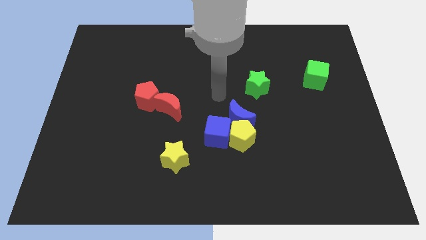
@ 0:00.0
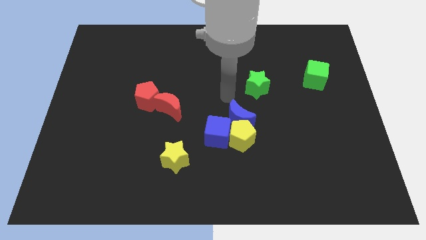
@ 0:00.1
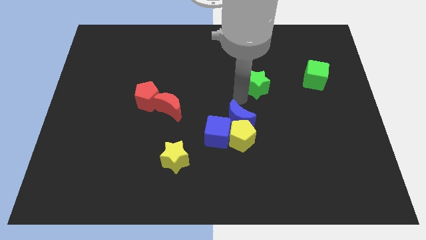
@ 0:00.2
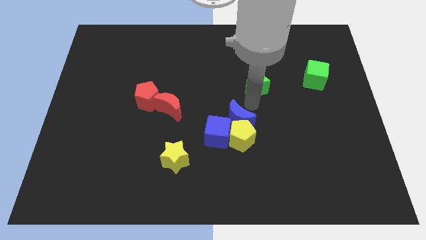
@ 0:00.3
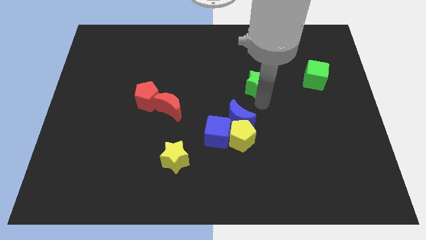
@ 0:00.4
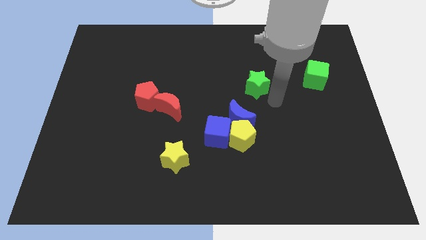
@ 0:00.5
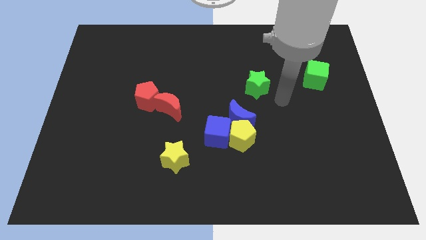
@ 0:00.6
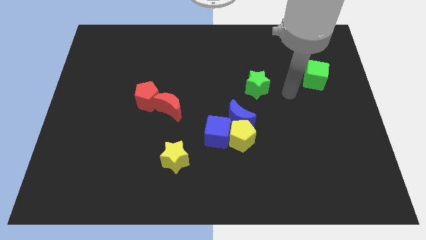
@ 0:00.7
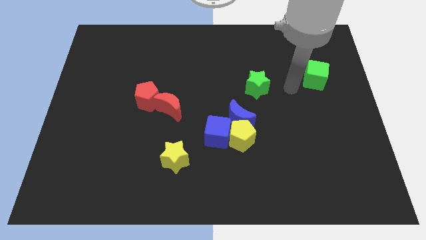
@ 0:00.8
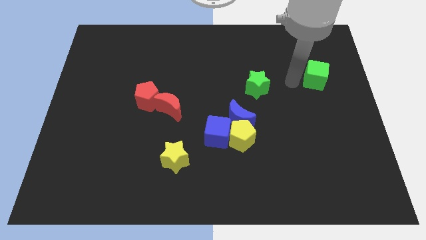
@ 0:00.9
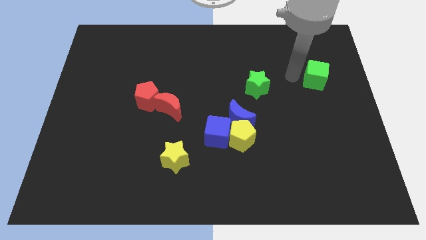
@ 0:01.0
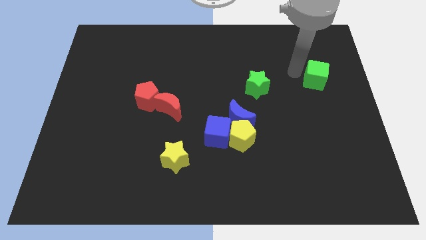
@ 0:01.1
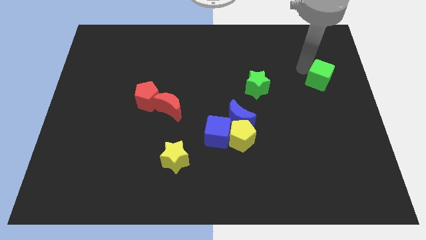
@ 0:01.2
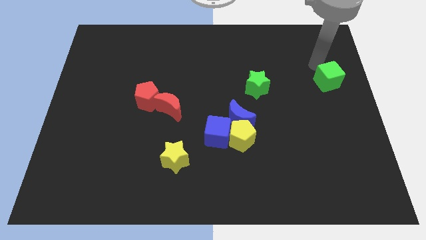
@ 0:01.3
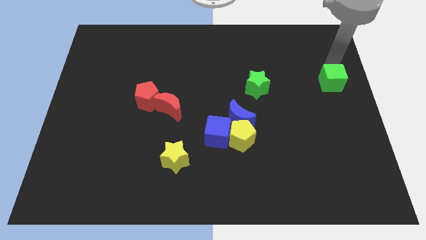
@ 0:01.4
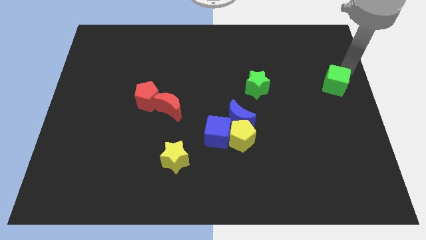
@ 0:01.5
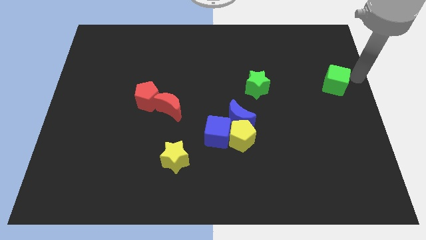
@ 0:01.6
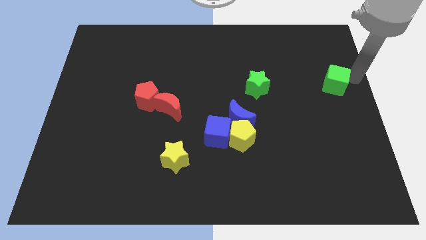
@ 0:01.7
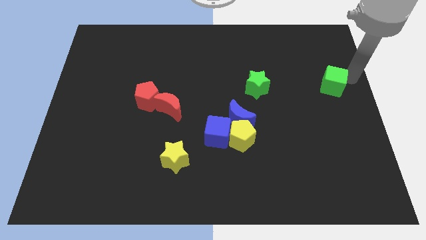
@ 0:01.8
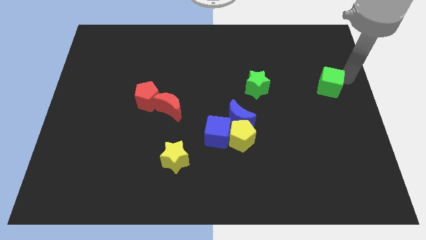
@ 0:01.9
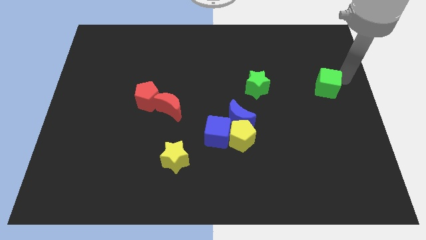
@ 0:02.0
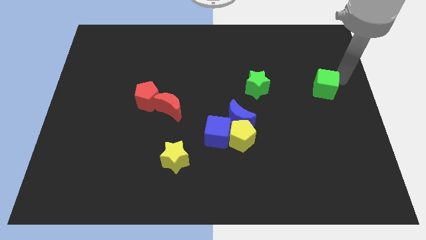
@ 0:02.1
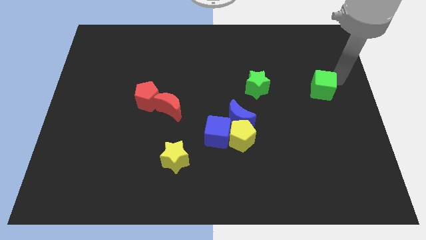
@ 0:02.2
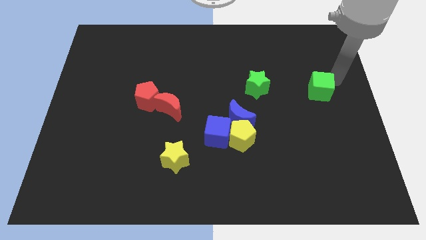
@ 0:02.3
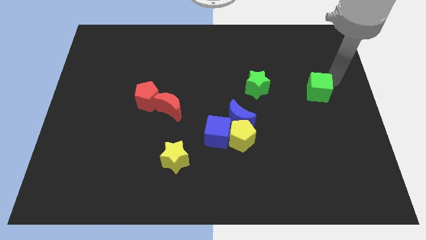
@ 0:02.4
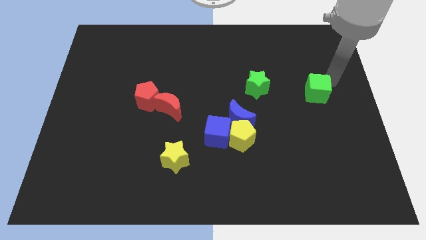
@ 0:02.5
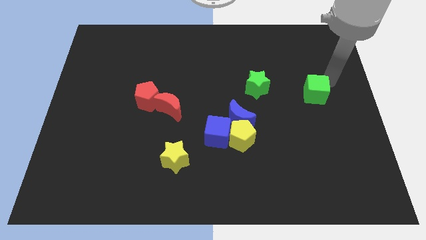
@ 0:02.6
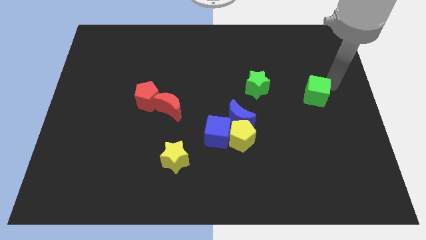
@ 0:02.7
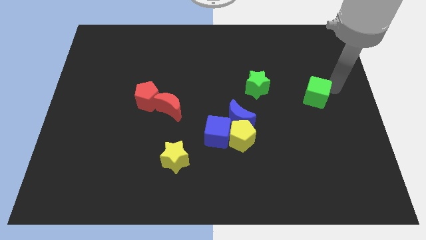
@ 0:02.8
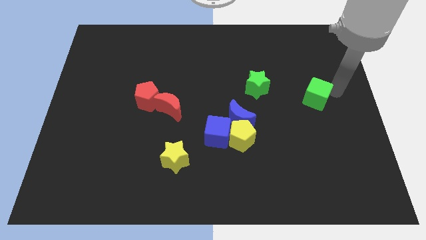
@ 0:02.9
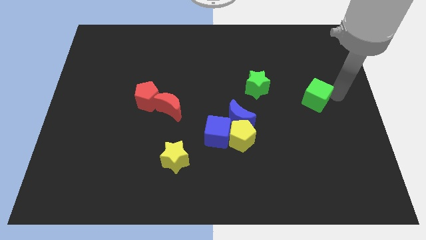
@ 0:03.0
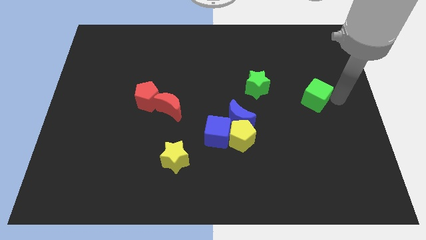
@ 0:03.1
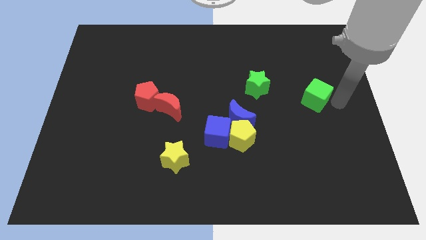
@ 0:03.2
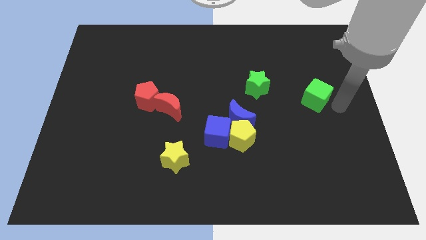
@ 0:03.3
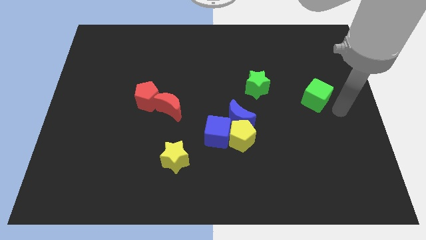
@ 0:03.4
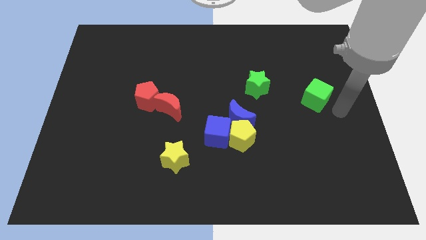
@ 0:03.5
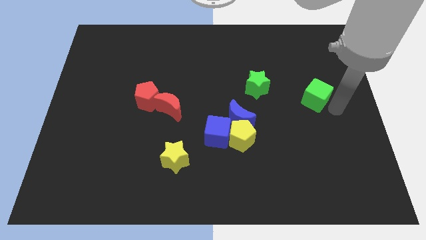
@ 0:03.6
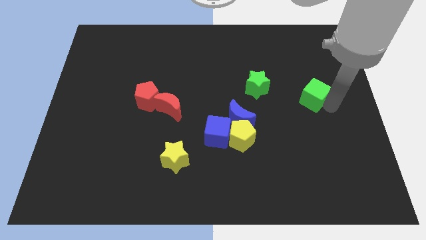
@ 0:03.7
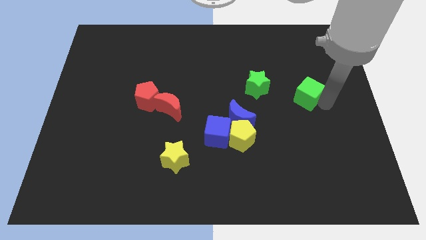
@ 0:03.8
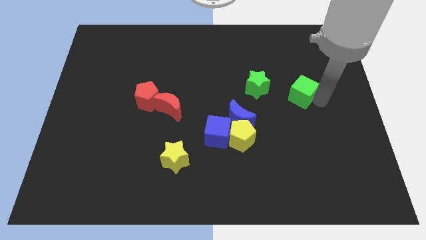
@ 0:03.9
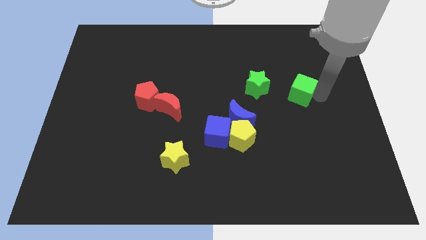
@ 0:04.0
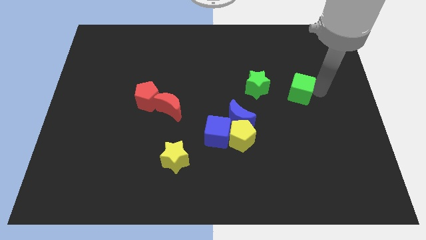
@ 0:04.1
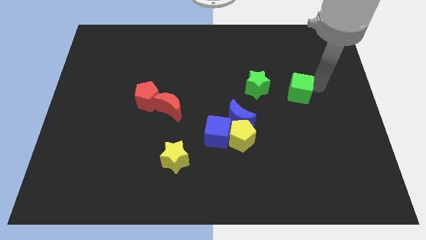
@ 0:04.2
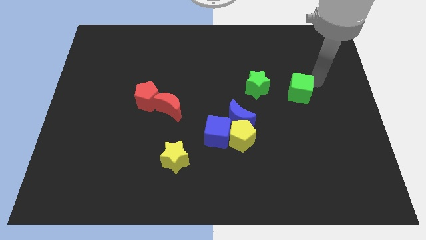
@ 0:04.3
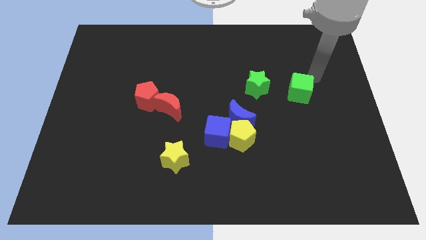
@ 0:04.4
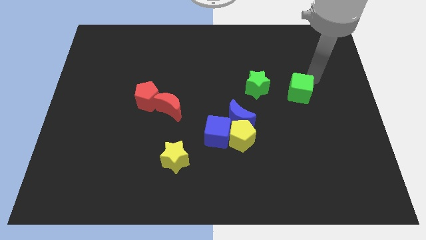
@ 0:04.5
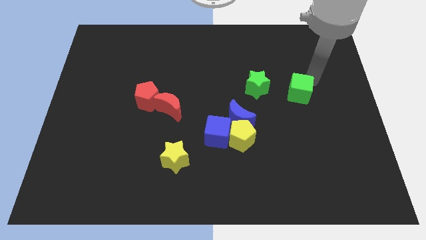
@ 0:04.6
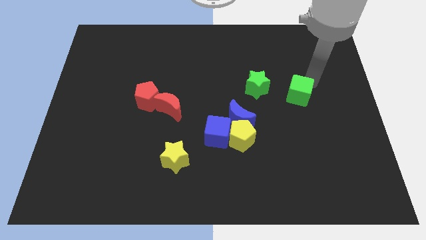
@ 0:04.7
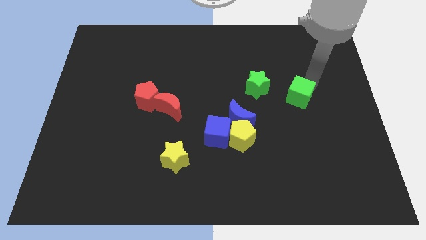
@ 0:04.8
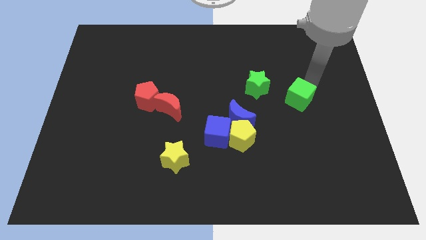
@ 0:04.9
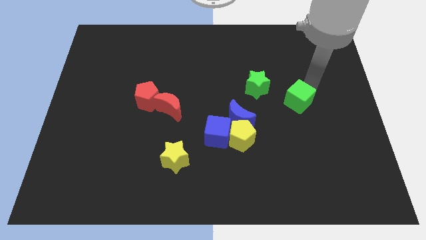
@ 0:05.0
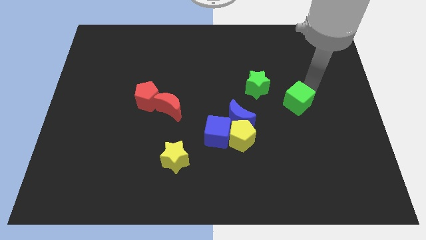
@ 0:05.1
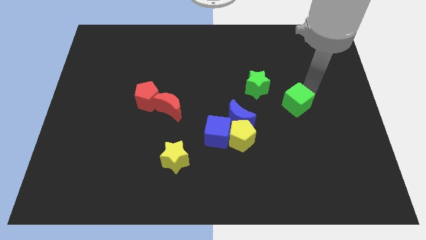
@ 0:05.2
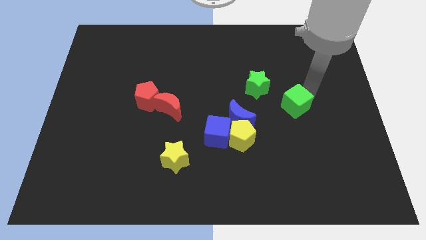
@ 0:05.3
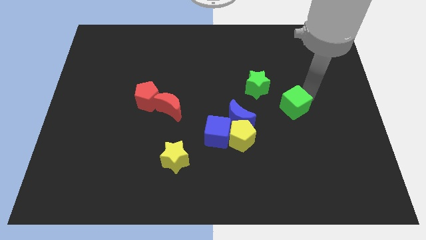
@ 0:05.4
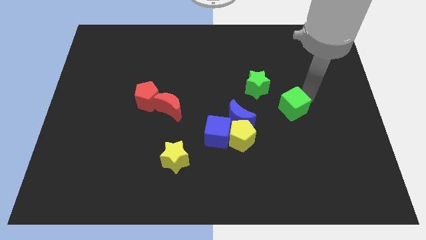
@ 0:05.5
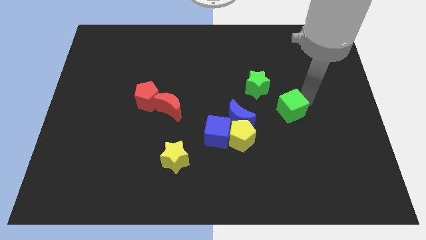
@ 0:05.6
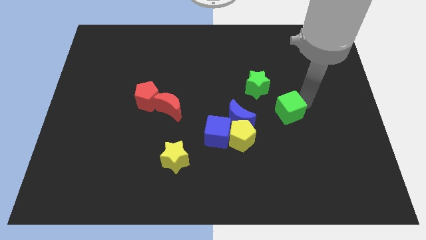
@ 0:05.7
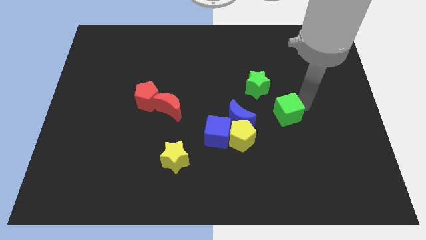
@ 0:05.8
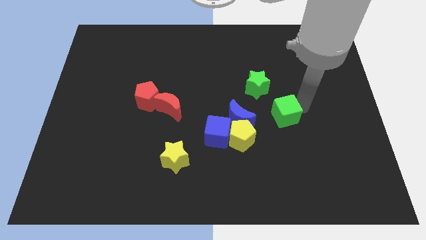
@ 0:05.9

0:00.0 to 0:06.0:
slide the green cube diagonally up and to the right of the yellow pentagon

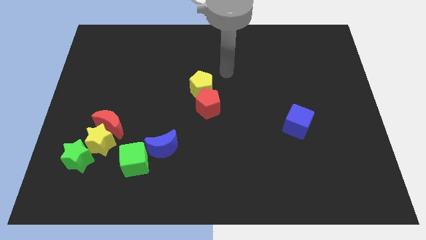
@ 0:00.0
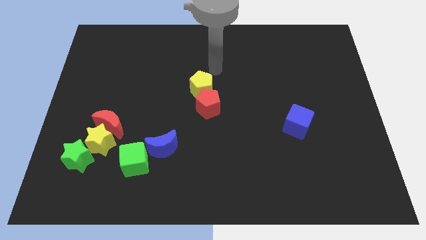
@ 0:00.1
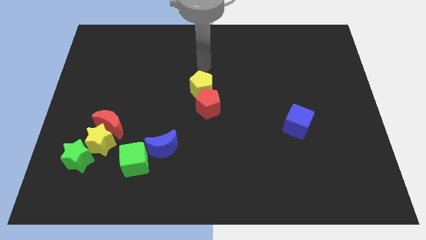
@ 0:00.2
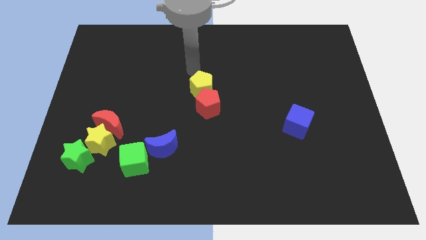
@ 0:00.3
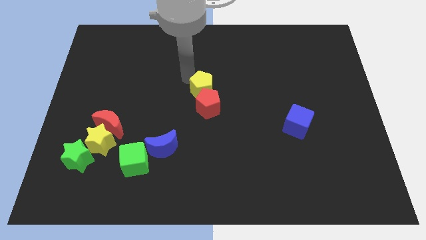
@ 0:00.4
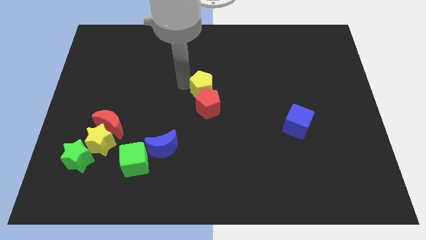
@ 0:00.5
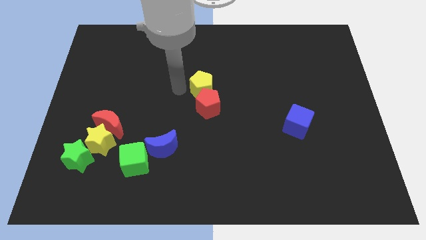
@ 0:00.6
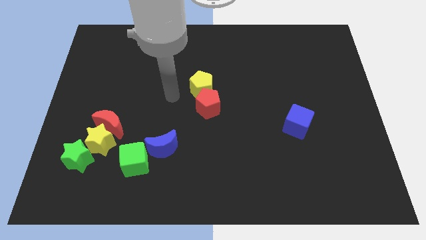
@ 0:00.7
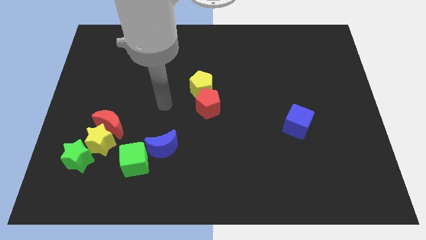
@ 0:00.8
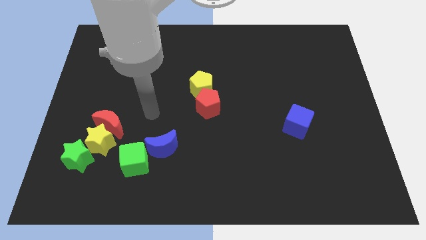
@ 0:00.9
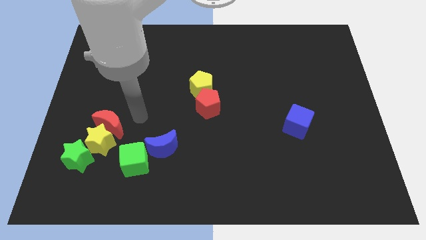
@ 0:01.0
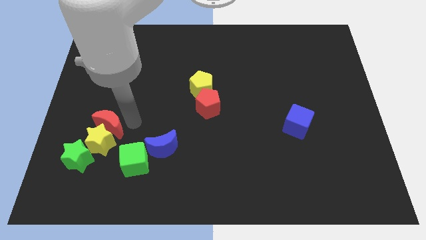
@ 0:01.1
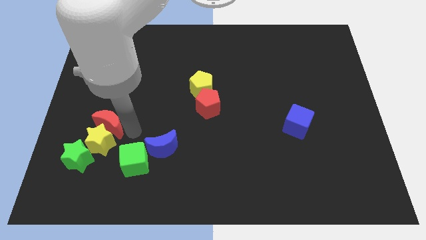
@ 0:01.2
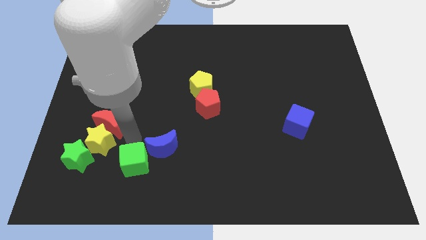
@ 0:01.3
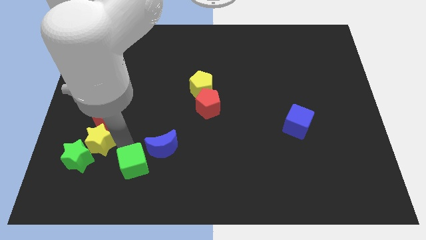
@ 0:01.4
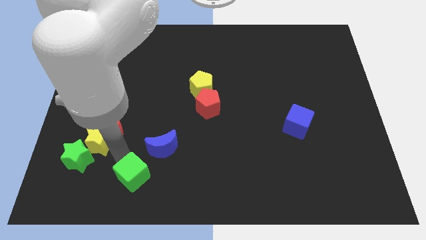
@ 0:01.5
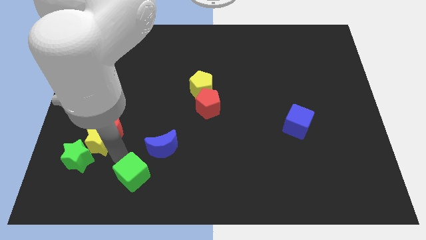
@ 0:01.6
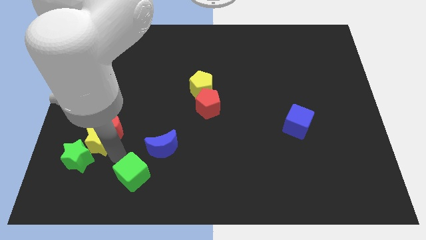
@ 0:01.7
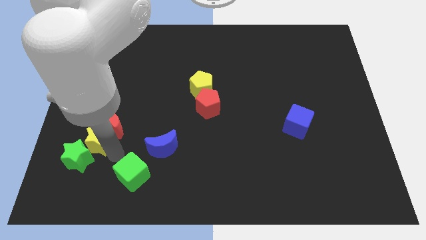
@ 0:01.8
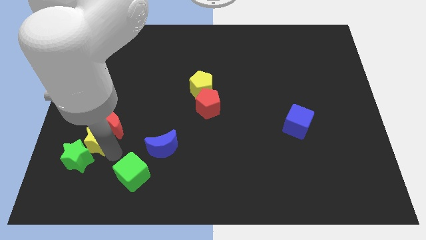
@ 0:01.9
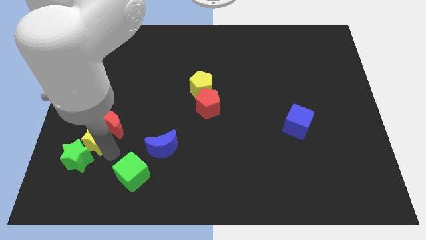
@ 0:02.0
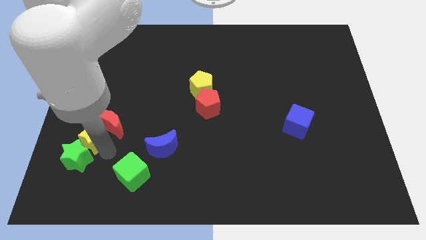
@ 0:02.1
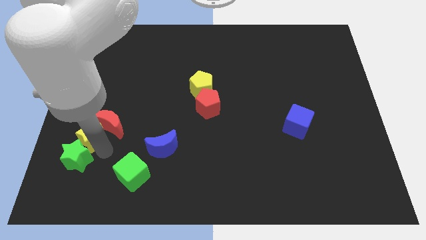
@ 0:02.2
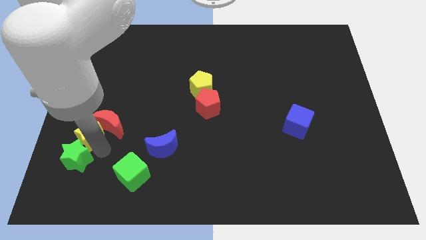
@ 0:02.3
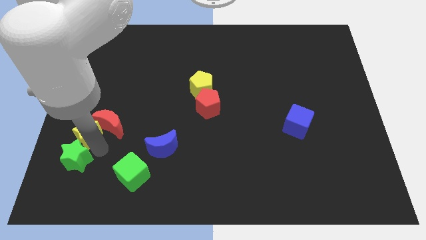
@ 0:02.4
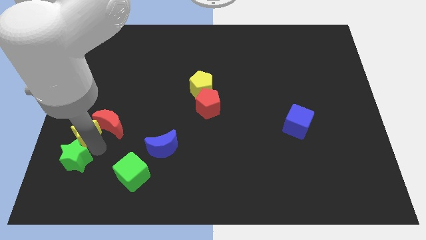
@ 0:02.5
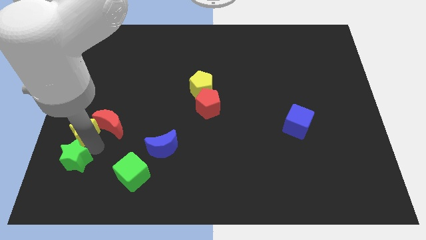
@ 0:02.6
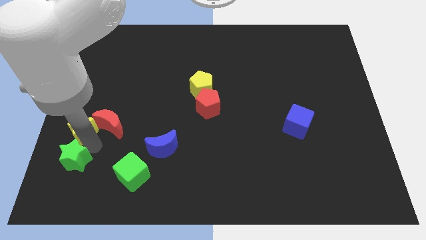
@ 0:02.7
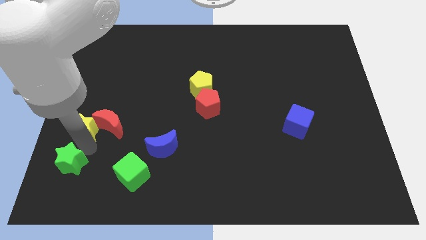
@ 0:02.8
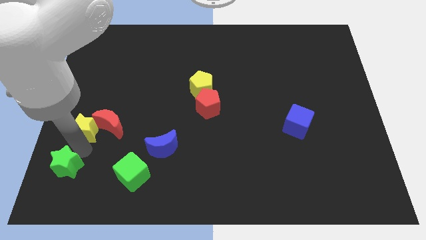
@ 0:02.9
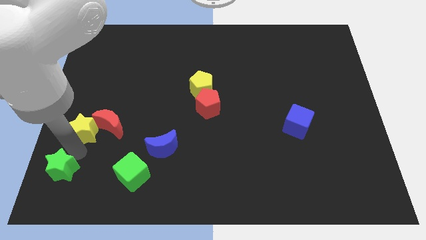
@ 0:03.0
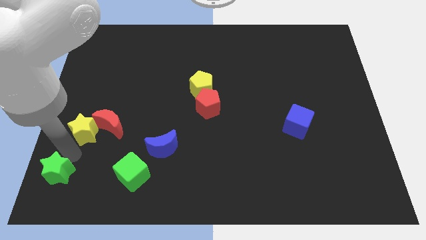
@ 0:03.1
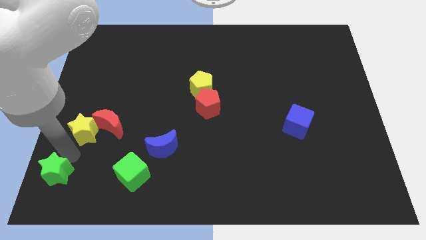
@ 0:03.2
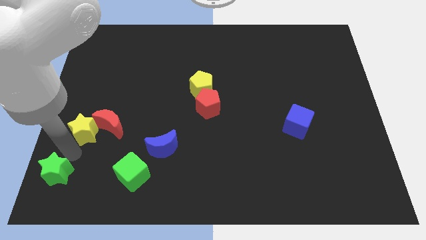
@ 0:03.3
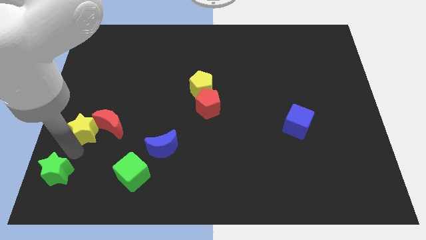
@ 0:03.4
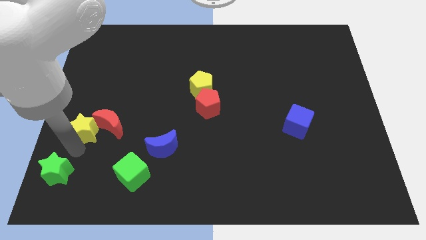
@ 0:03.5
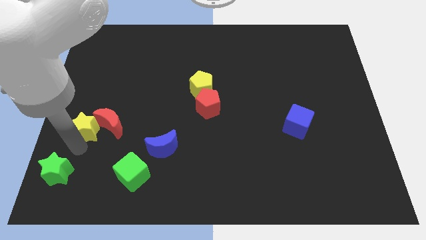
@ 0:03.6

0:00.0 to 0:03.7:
move the yellow star diagonally up and to the left of the red moon
